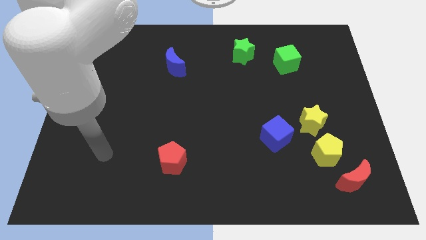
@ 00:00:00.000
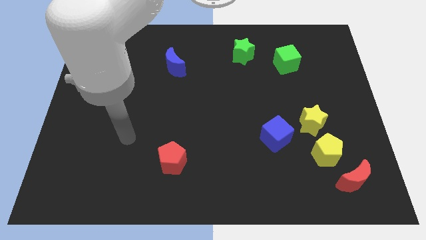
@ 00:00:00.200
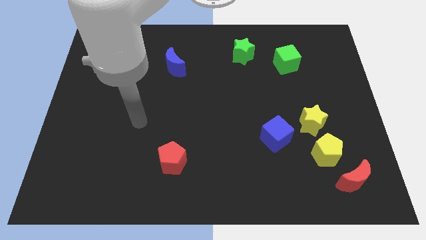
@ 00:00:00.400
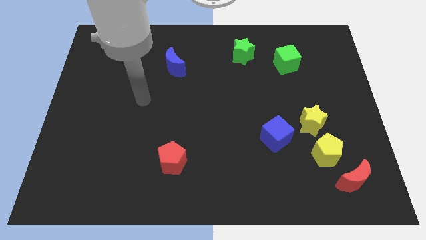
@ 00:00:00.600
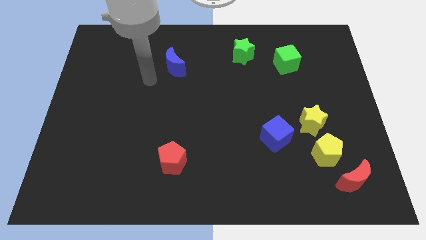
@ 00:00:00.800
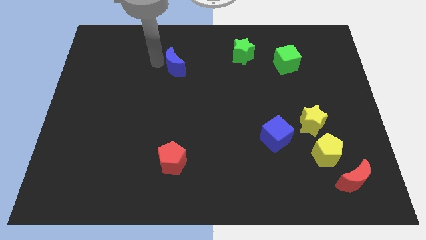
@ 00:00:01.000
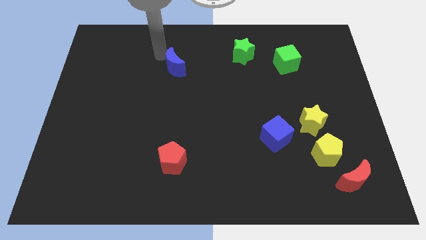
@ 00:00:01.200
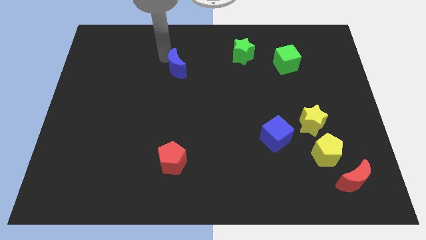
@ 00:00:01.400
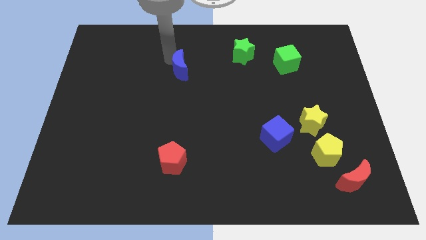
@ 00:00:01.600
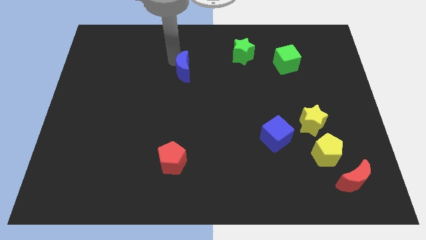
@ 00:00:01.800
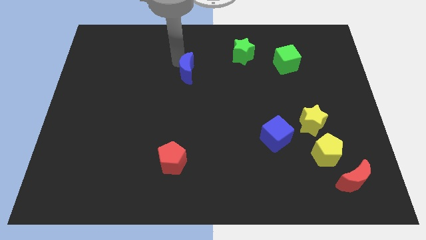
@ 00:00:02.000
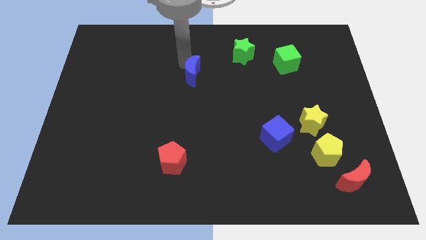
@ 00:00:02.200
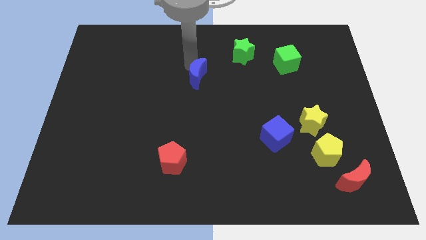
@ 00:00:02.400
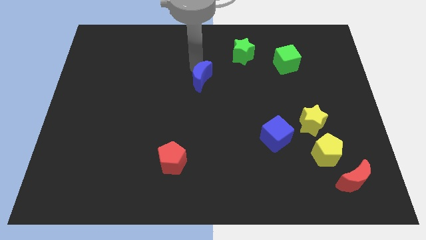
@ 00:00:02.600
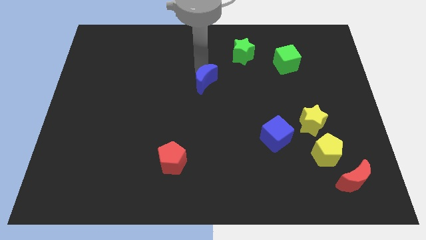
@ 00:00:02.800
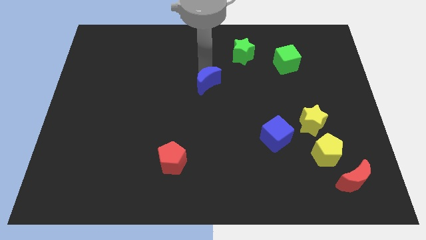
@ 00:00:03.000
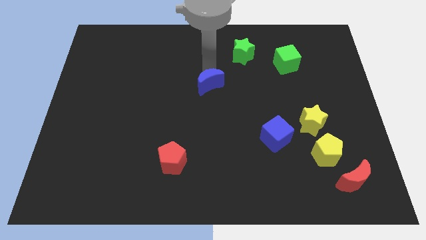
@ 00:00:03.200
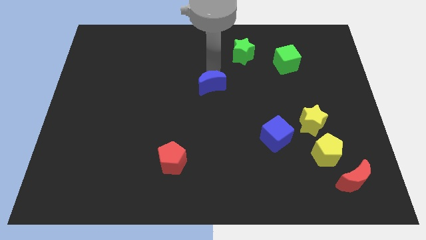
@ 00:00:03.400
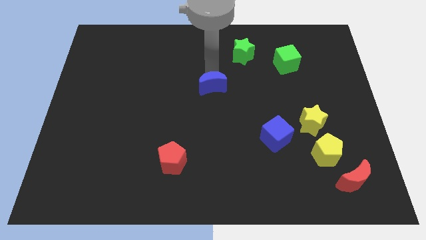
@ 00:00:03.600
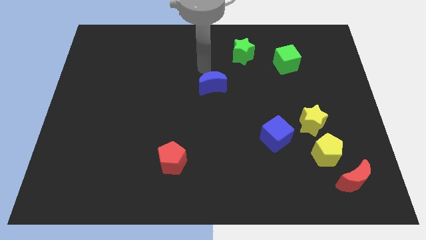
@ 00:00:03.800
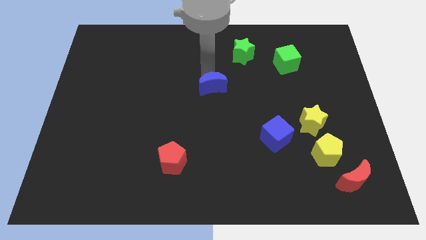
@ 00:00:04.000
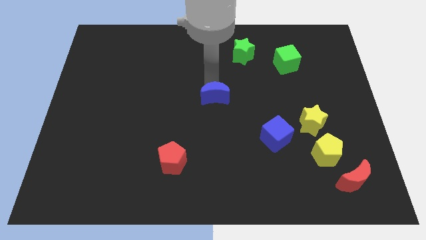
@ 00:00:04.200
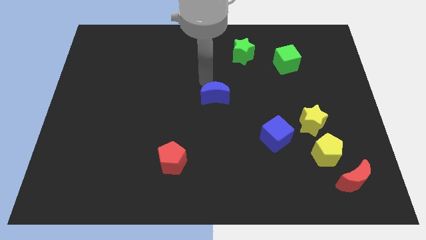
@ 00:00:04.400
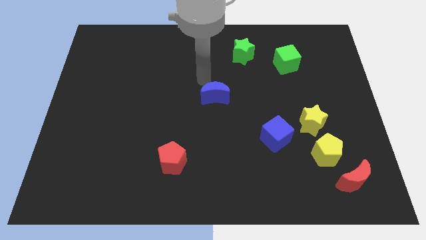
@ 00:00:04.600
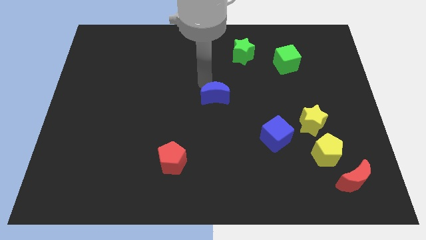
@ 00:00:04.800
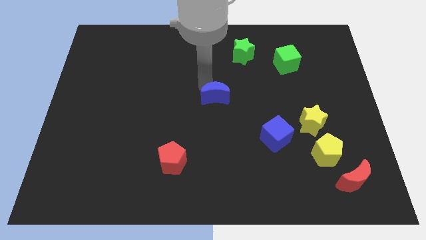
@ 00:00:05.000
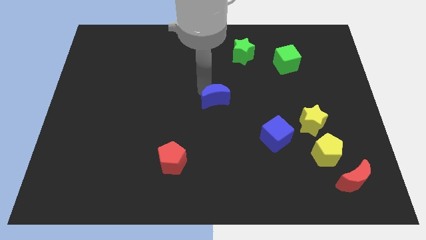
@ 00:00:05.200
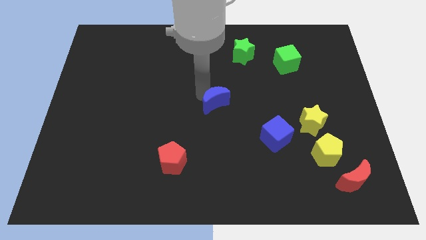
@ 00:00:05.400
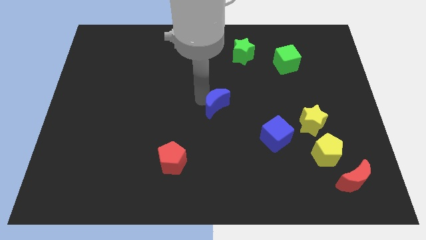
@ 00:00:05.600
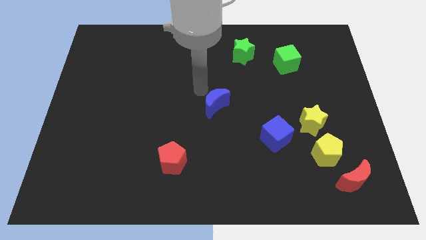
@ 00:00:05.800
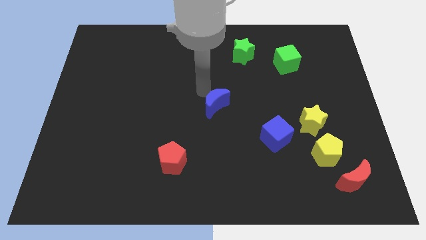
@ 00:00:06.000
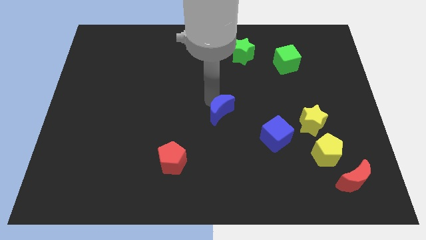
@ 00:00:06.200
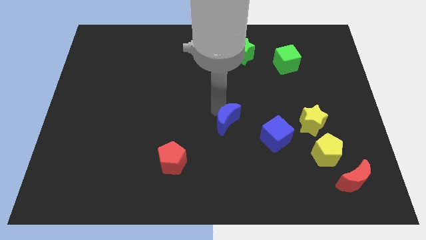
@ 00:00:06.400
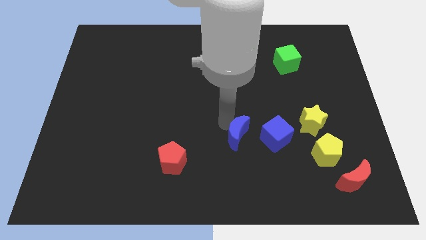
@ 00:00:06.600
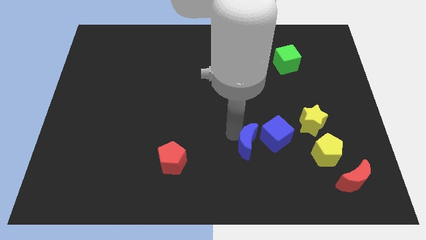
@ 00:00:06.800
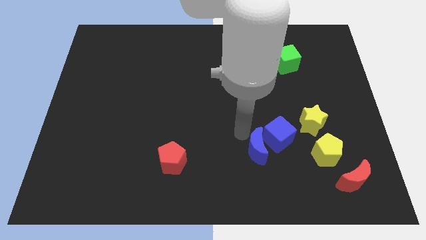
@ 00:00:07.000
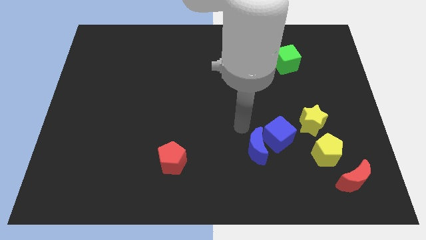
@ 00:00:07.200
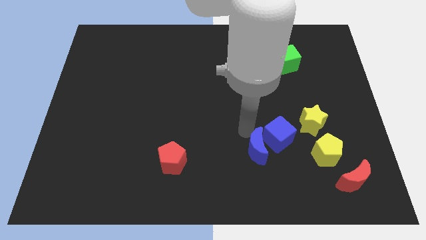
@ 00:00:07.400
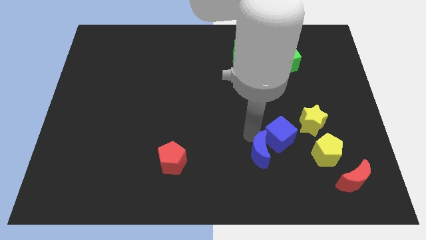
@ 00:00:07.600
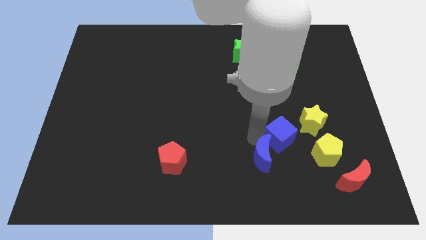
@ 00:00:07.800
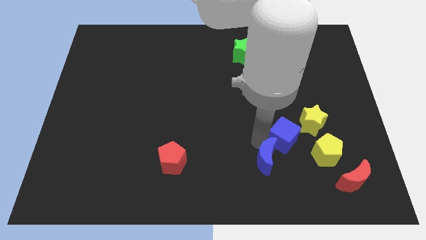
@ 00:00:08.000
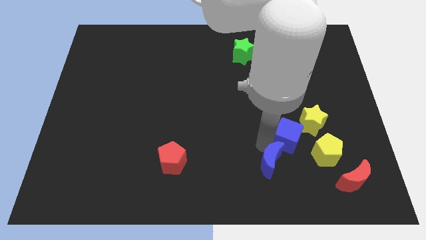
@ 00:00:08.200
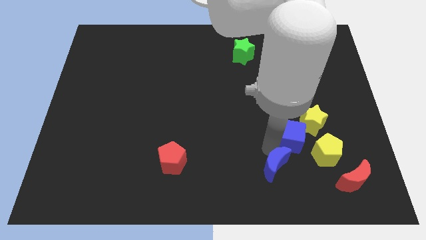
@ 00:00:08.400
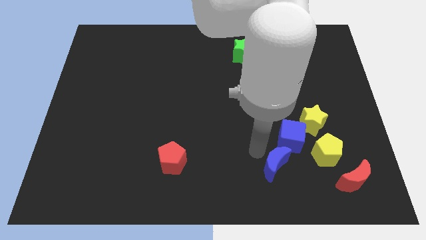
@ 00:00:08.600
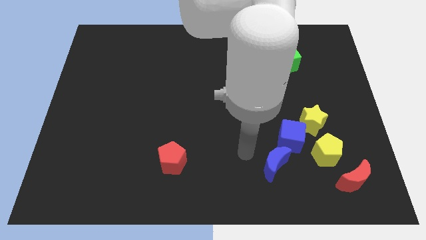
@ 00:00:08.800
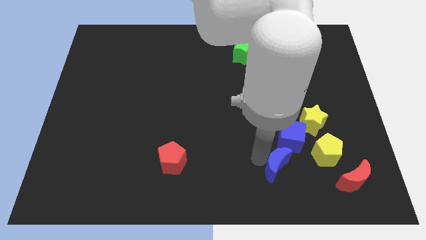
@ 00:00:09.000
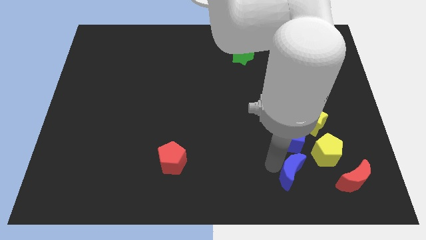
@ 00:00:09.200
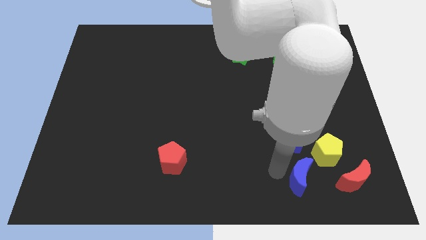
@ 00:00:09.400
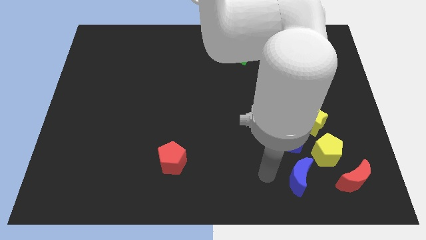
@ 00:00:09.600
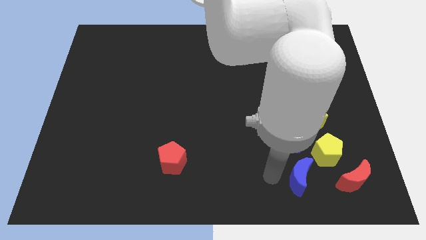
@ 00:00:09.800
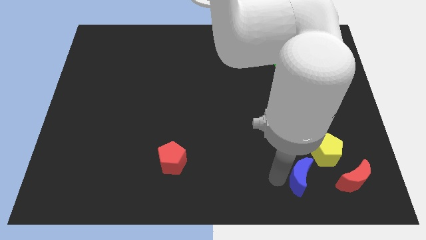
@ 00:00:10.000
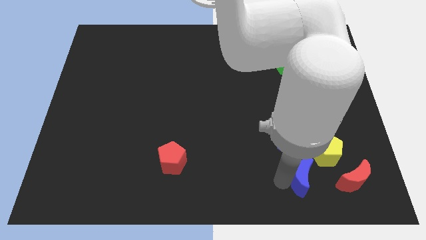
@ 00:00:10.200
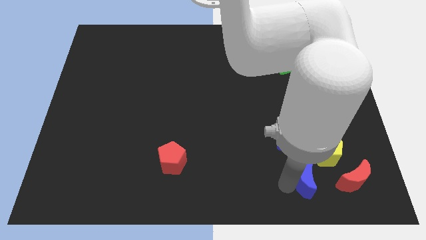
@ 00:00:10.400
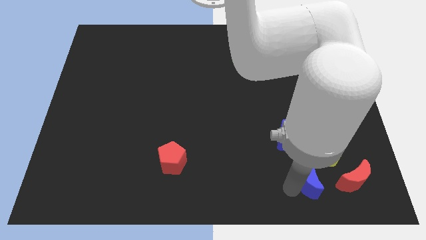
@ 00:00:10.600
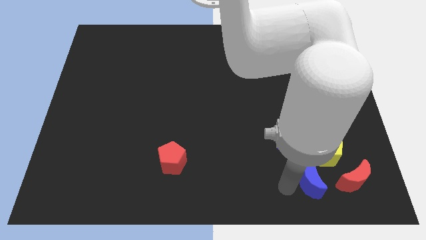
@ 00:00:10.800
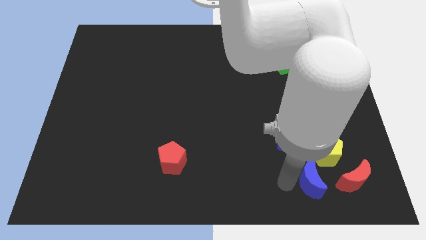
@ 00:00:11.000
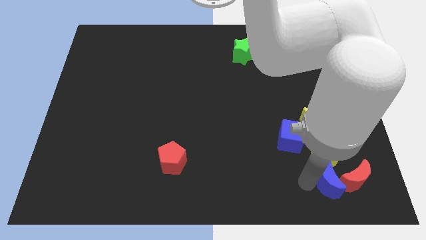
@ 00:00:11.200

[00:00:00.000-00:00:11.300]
move the blue moon next to the red moon

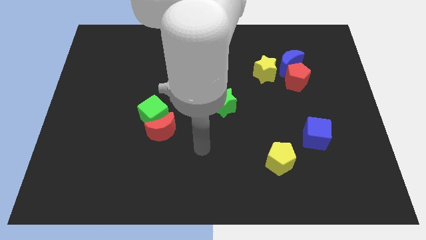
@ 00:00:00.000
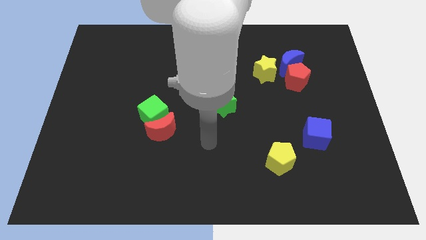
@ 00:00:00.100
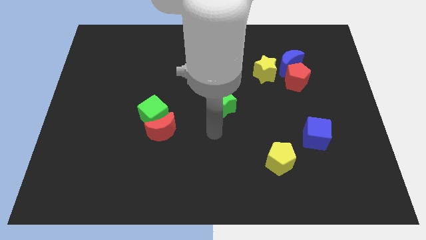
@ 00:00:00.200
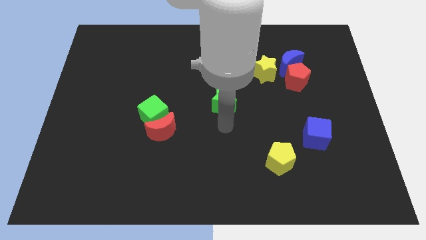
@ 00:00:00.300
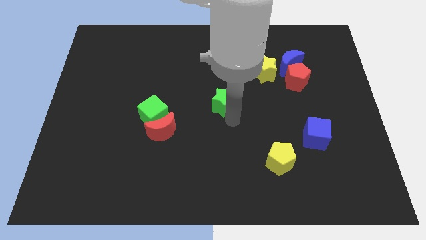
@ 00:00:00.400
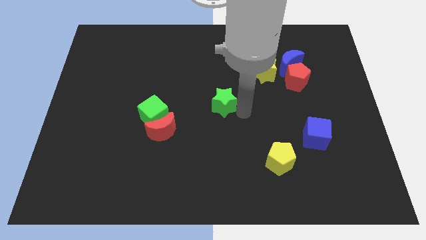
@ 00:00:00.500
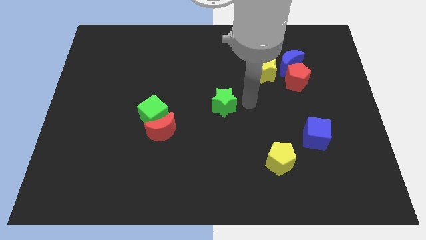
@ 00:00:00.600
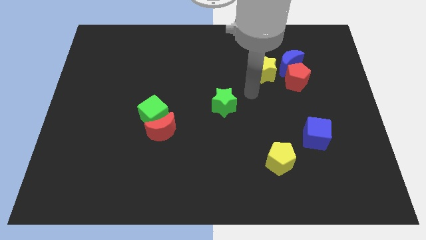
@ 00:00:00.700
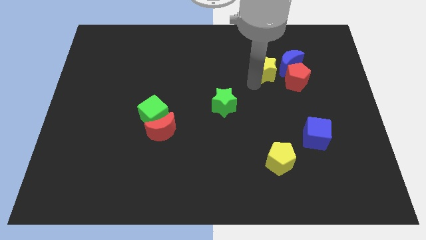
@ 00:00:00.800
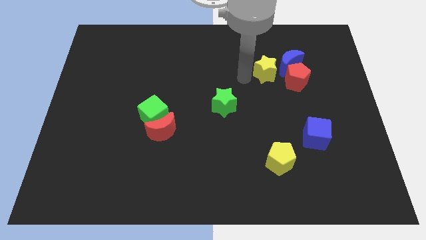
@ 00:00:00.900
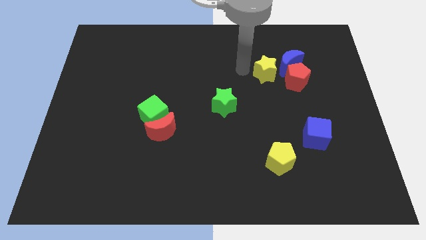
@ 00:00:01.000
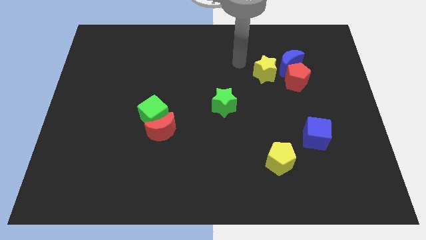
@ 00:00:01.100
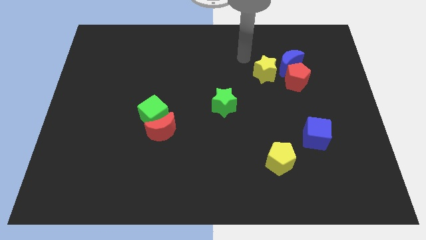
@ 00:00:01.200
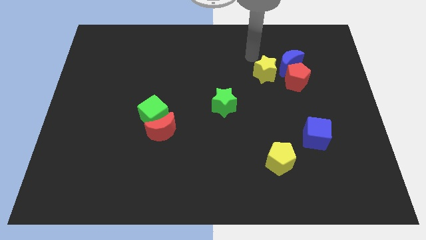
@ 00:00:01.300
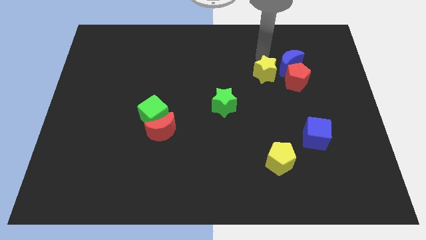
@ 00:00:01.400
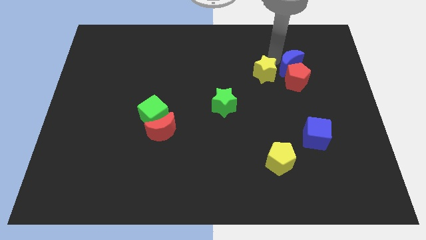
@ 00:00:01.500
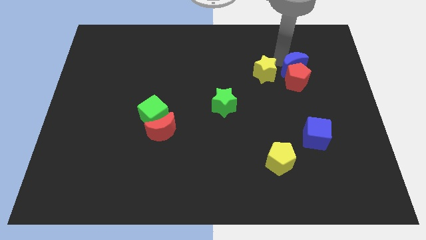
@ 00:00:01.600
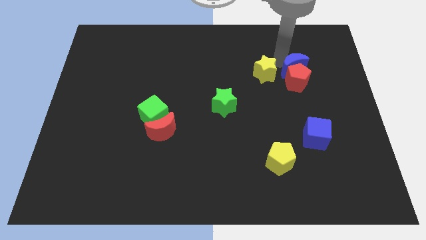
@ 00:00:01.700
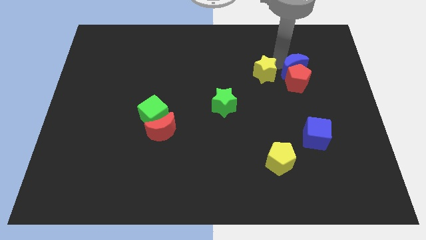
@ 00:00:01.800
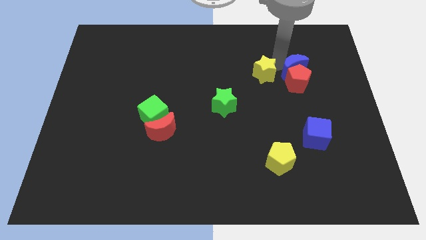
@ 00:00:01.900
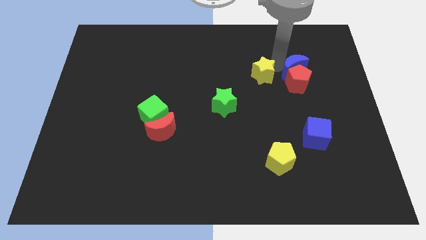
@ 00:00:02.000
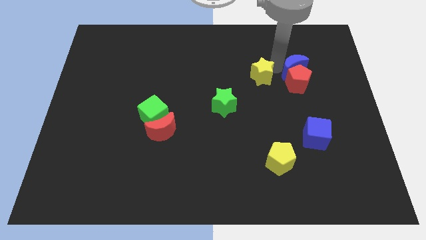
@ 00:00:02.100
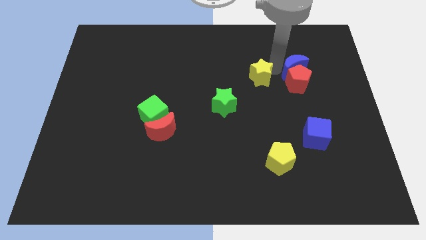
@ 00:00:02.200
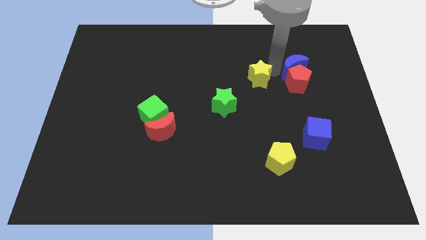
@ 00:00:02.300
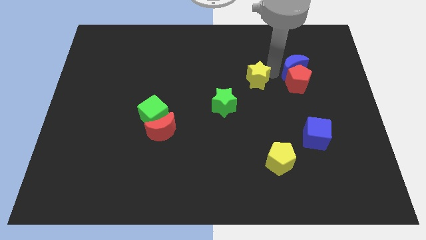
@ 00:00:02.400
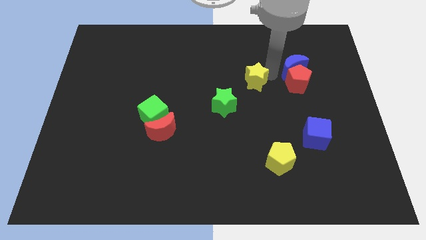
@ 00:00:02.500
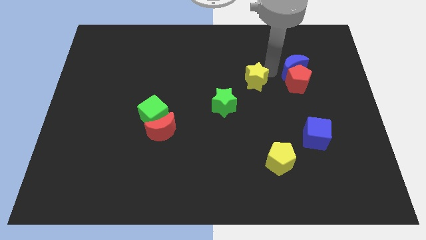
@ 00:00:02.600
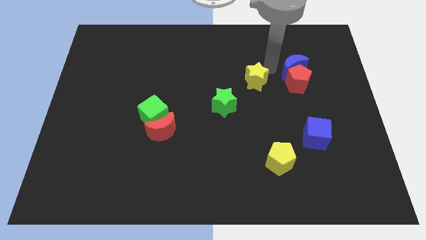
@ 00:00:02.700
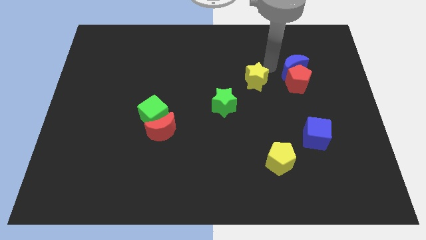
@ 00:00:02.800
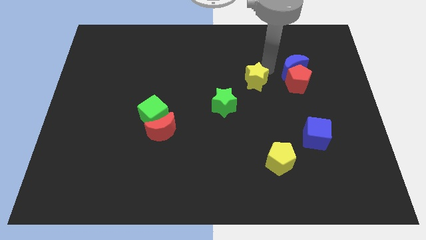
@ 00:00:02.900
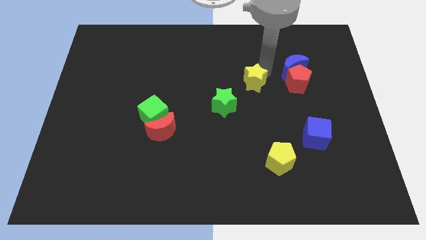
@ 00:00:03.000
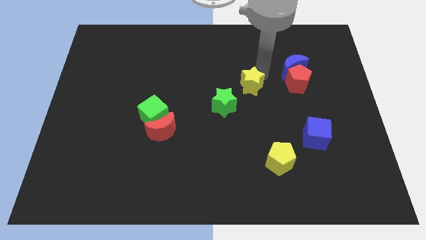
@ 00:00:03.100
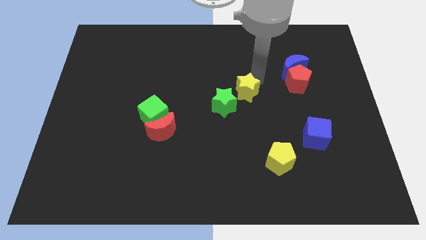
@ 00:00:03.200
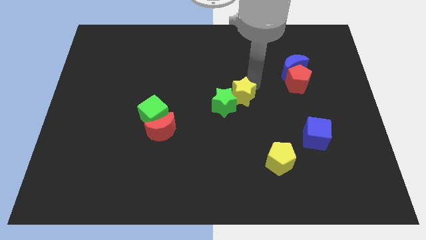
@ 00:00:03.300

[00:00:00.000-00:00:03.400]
move the yellow star close to the green star
